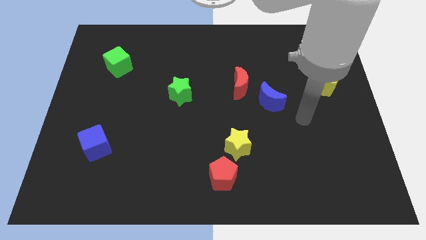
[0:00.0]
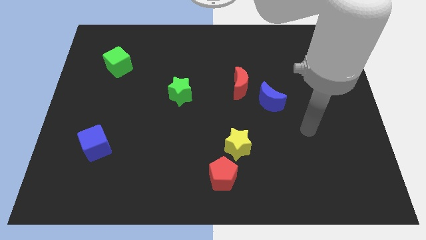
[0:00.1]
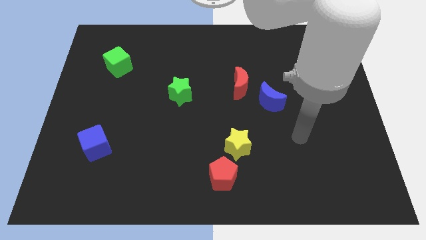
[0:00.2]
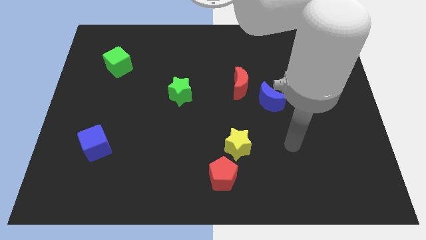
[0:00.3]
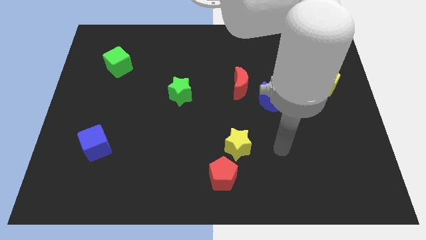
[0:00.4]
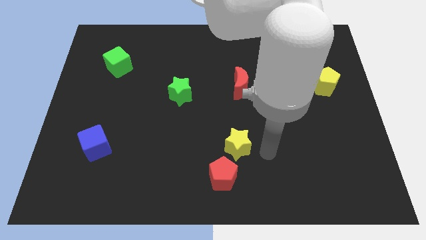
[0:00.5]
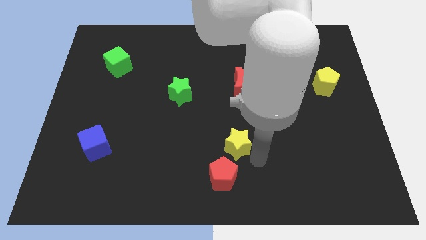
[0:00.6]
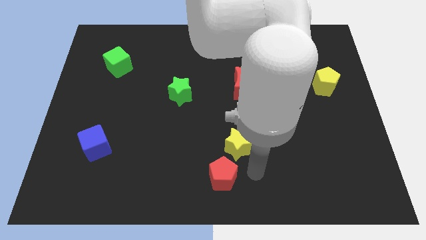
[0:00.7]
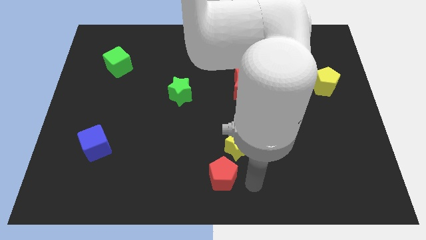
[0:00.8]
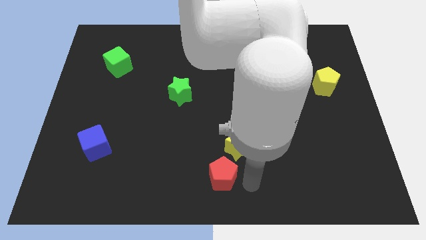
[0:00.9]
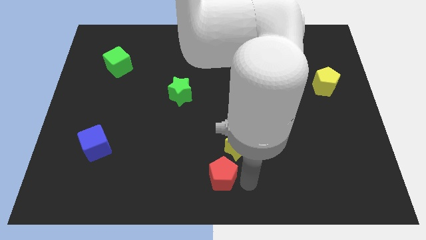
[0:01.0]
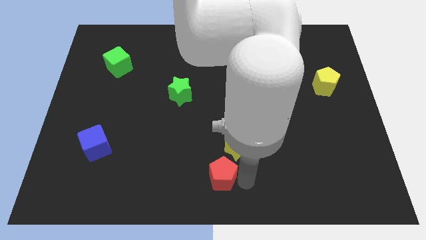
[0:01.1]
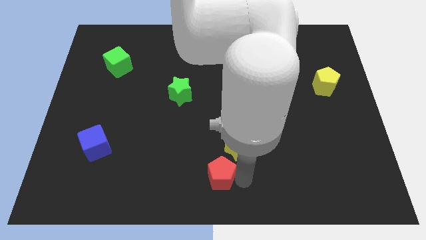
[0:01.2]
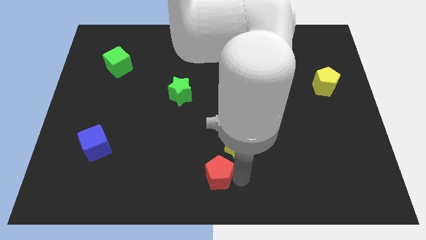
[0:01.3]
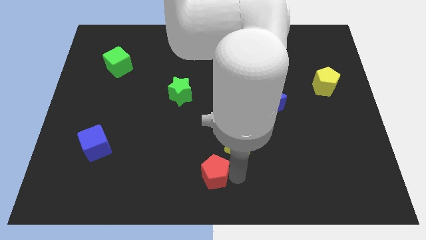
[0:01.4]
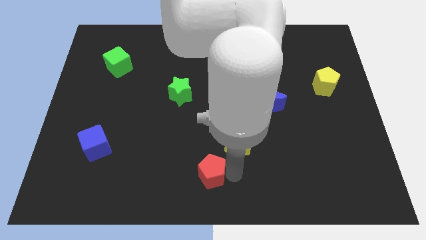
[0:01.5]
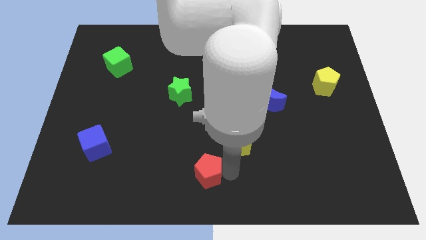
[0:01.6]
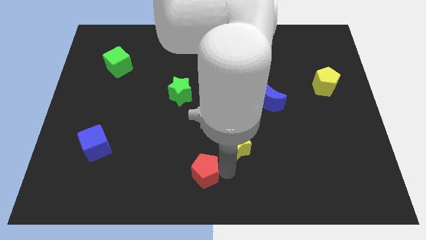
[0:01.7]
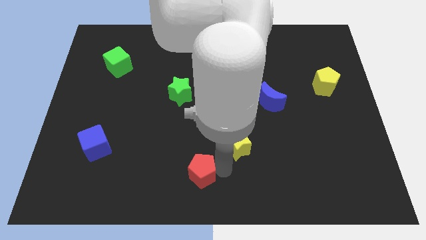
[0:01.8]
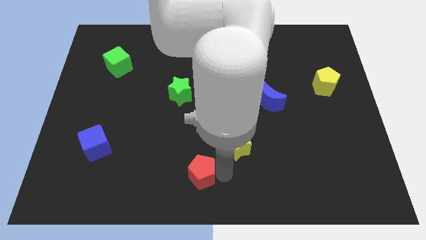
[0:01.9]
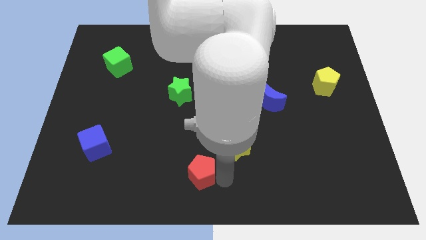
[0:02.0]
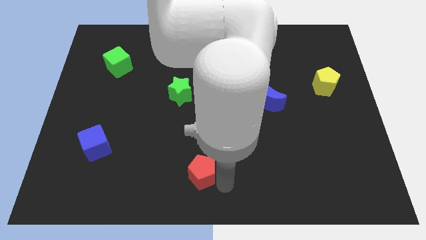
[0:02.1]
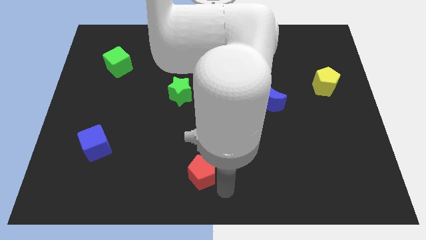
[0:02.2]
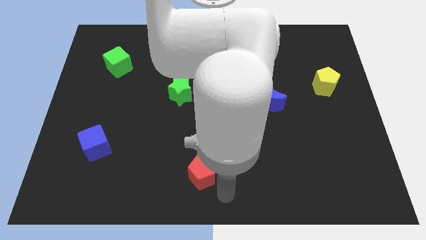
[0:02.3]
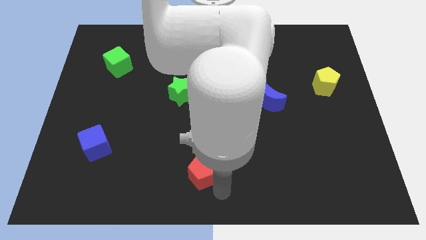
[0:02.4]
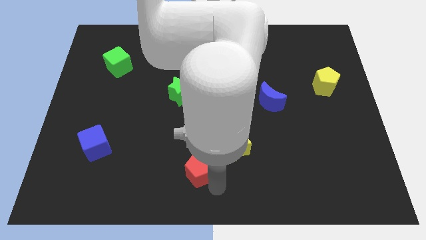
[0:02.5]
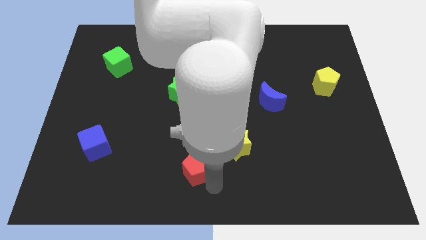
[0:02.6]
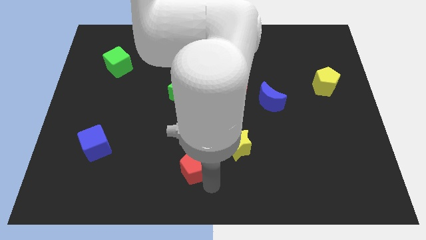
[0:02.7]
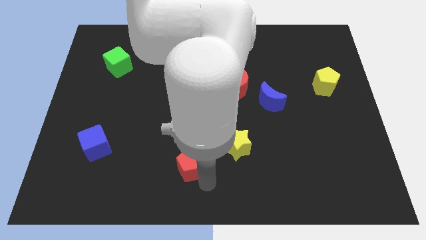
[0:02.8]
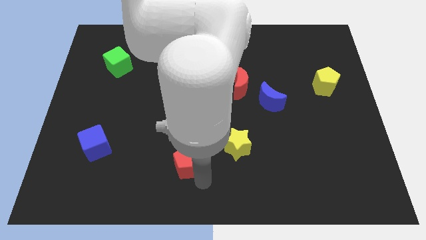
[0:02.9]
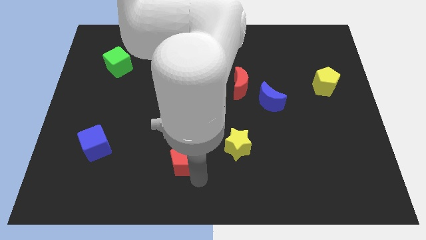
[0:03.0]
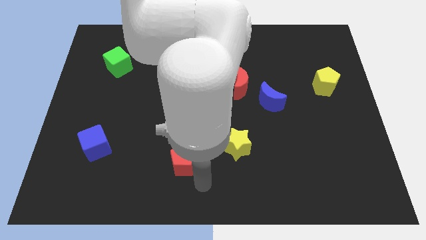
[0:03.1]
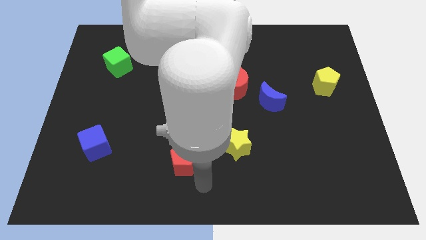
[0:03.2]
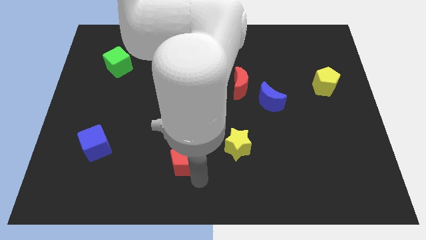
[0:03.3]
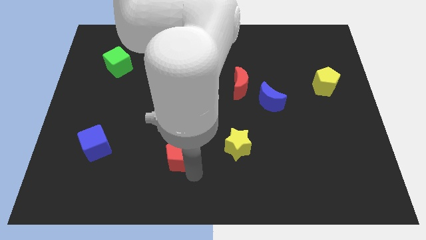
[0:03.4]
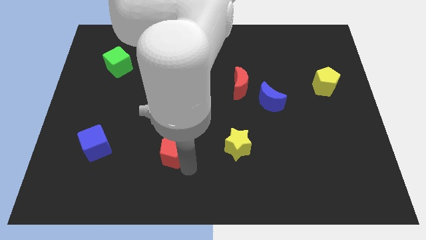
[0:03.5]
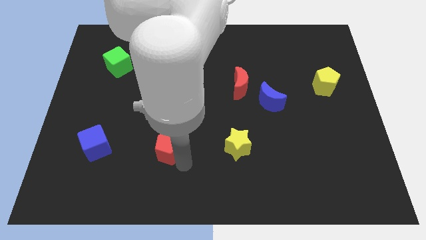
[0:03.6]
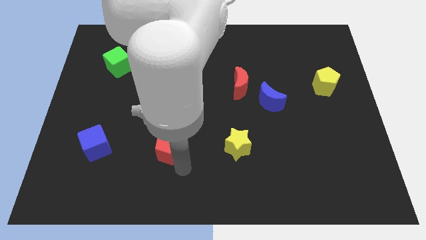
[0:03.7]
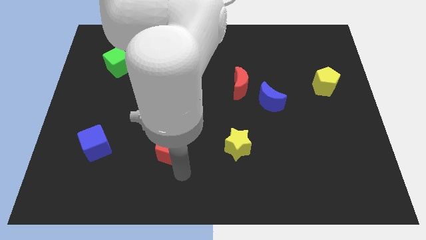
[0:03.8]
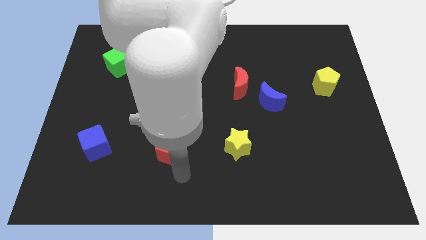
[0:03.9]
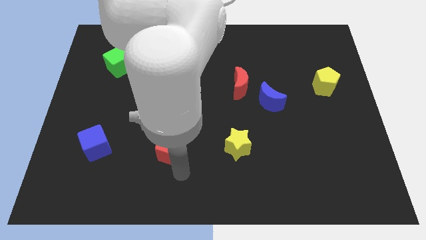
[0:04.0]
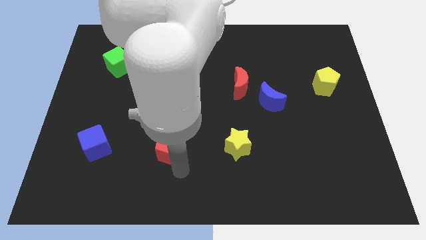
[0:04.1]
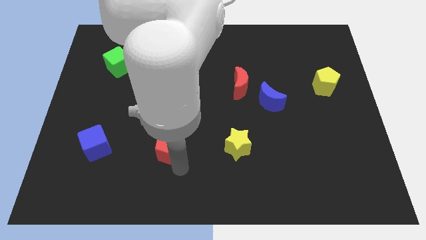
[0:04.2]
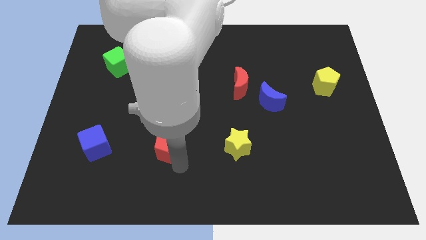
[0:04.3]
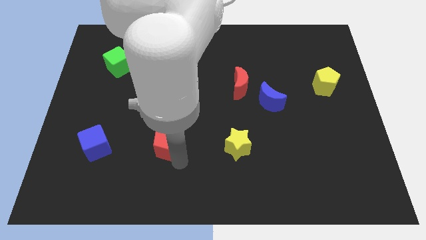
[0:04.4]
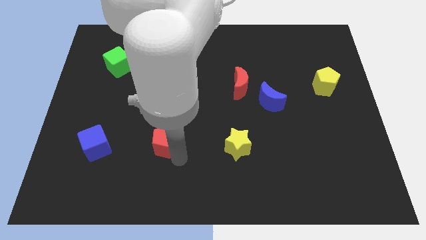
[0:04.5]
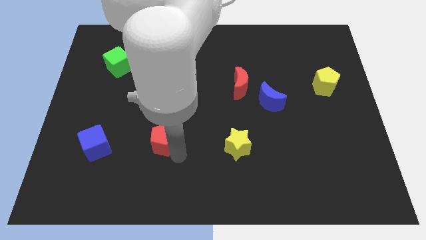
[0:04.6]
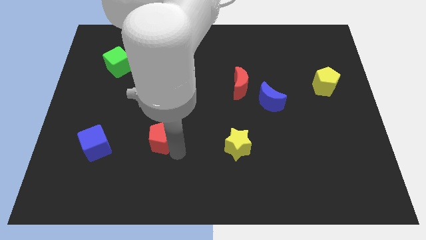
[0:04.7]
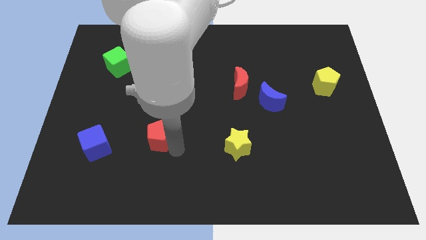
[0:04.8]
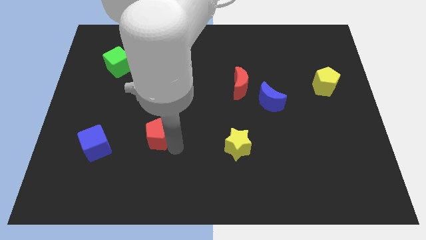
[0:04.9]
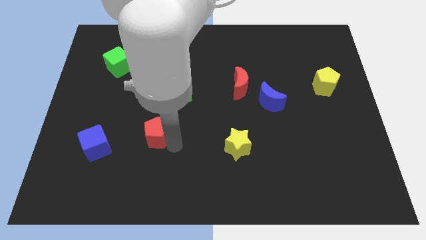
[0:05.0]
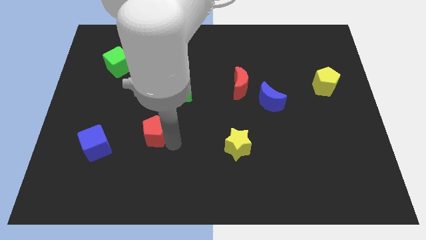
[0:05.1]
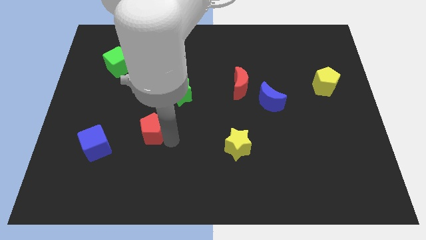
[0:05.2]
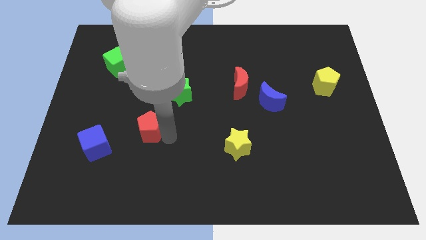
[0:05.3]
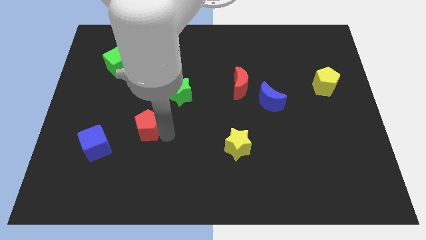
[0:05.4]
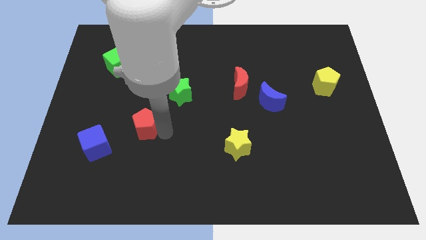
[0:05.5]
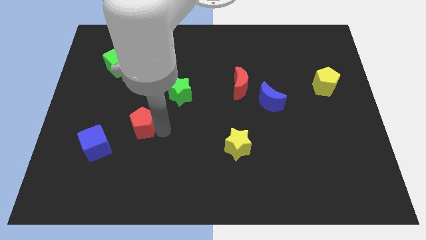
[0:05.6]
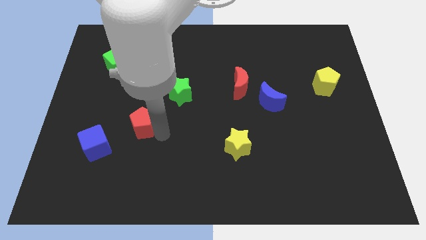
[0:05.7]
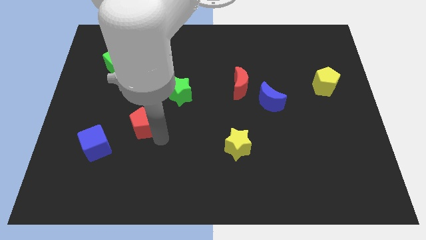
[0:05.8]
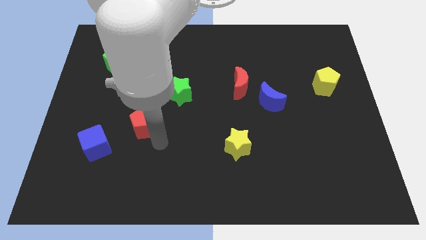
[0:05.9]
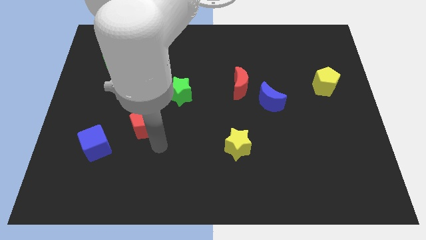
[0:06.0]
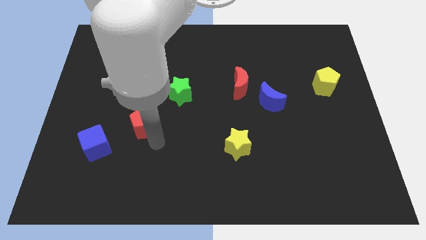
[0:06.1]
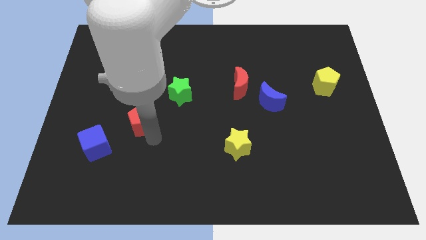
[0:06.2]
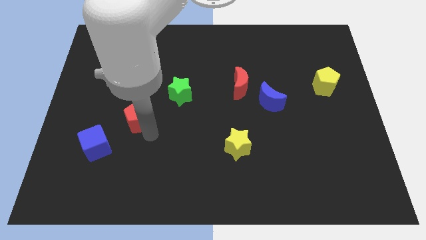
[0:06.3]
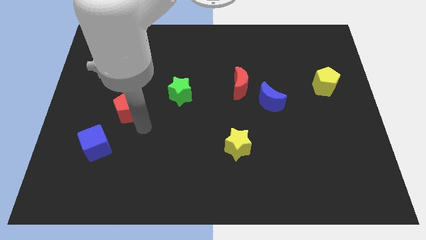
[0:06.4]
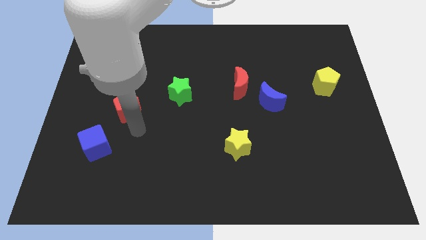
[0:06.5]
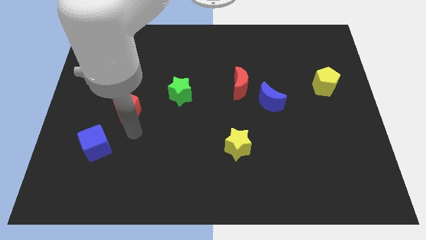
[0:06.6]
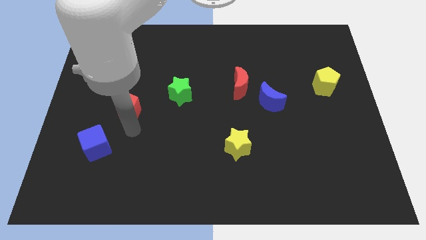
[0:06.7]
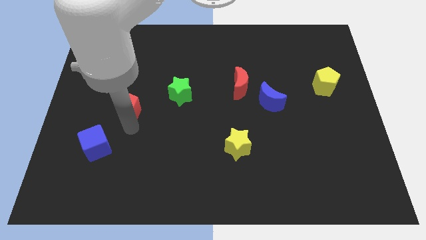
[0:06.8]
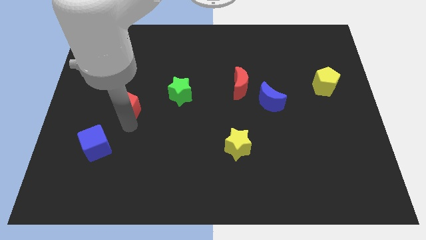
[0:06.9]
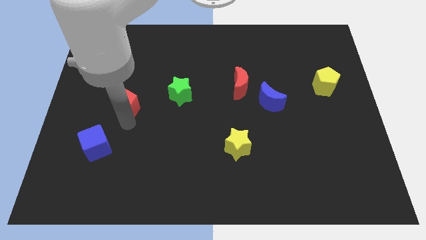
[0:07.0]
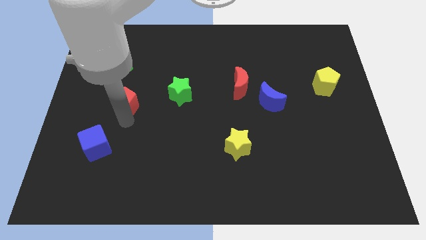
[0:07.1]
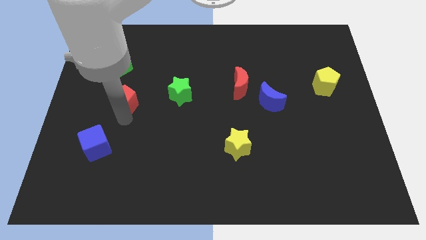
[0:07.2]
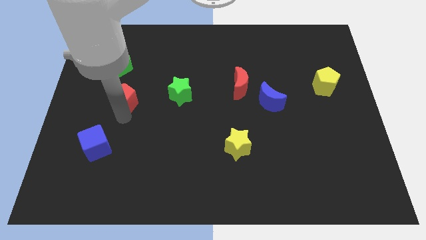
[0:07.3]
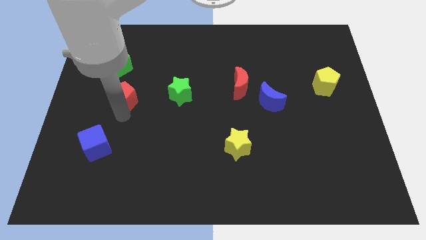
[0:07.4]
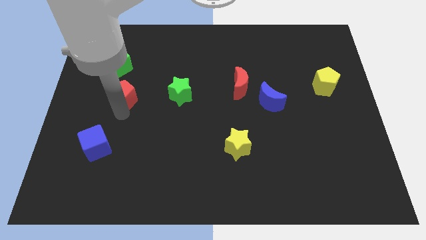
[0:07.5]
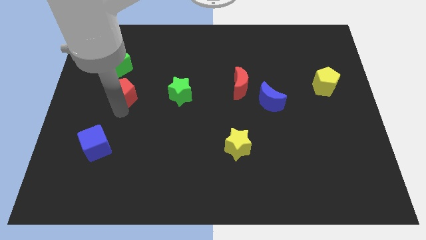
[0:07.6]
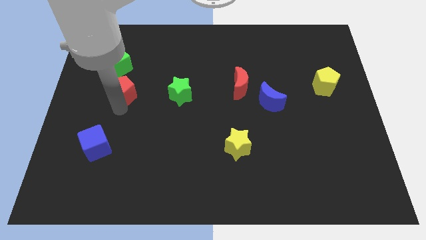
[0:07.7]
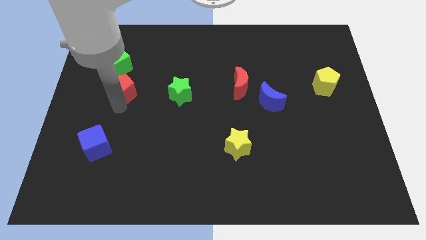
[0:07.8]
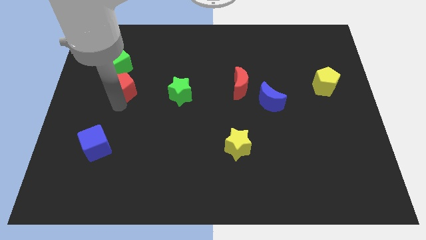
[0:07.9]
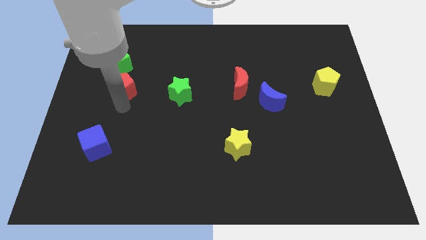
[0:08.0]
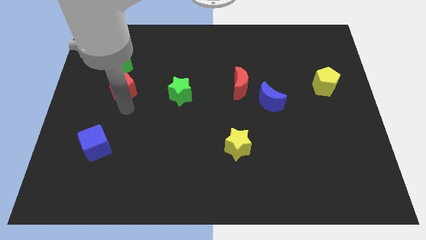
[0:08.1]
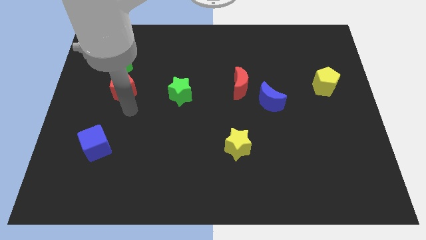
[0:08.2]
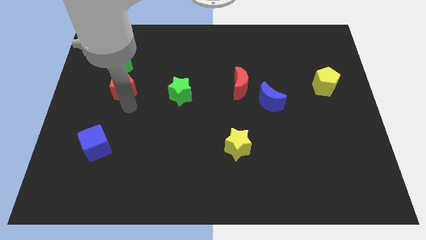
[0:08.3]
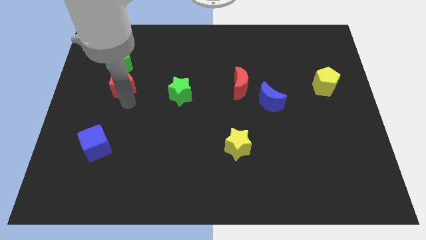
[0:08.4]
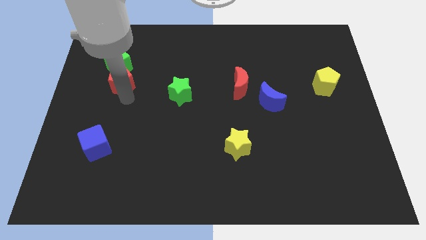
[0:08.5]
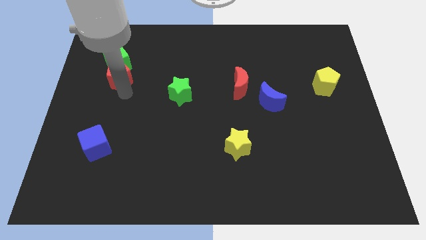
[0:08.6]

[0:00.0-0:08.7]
slide the red pentagon next to the green cube
